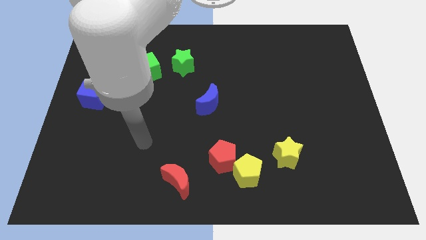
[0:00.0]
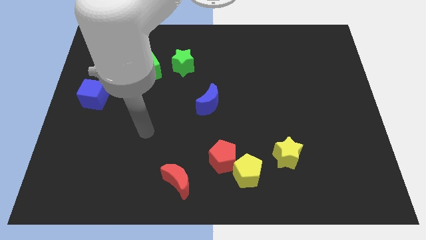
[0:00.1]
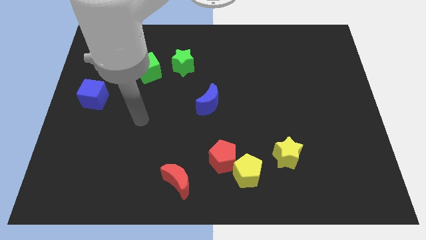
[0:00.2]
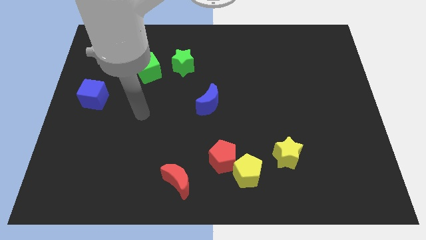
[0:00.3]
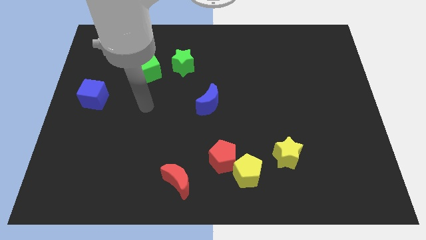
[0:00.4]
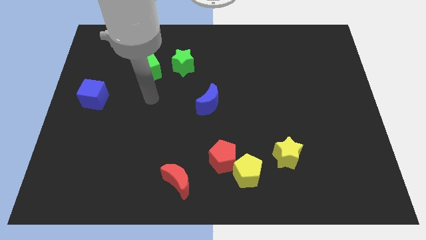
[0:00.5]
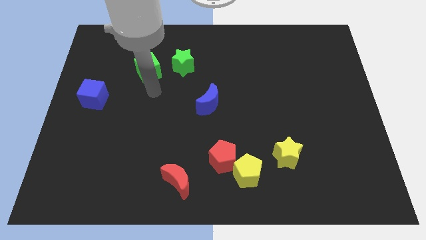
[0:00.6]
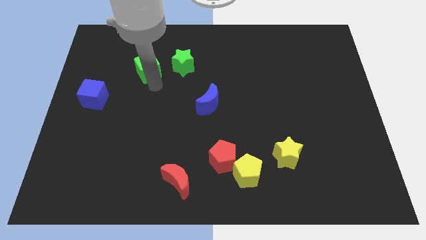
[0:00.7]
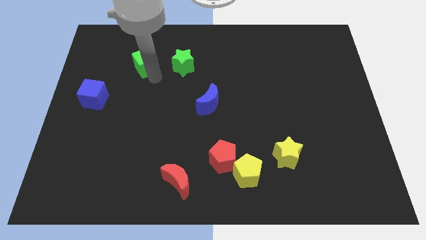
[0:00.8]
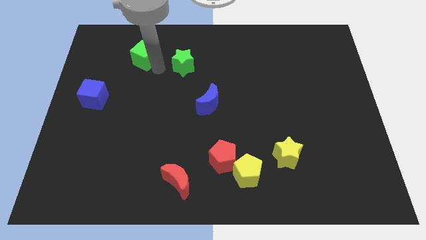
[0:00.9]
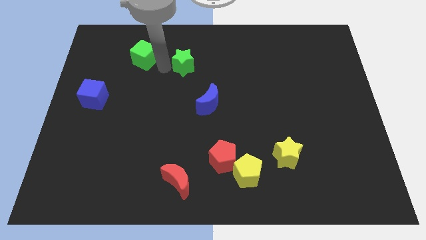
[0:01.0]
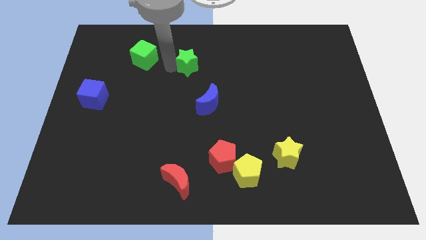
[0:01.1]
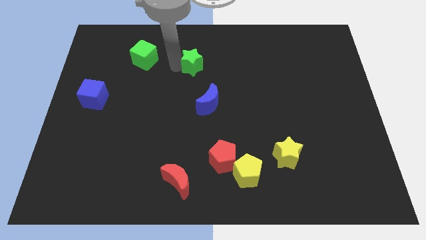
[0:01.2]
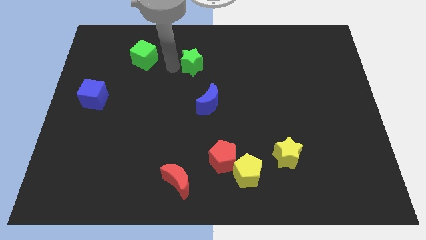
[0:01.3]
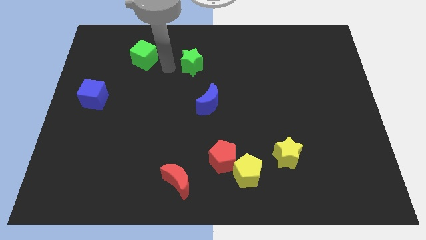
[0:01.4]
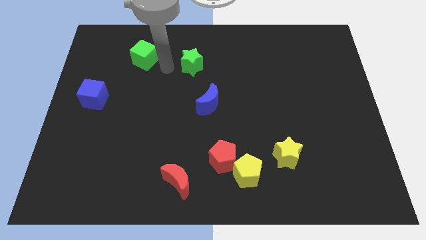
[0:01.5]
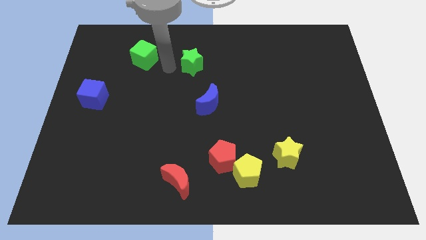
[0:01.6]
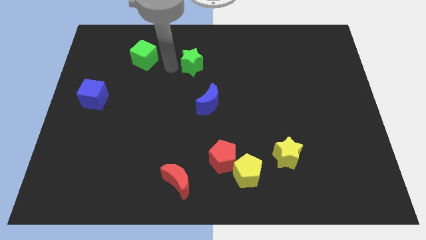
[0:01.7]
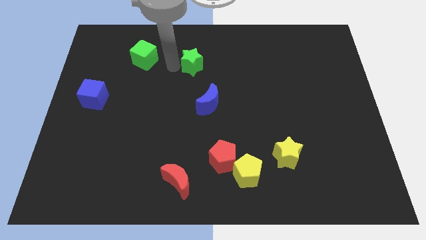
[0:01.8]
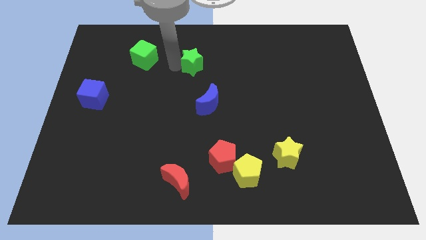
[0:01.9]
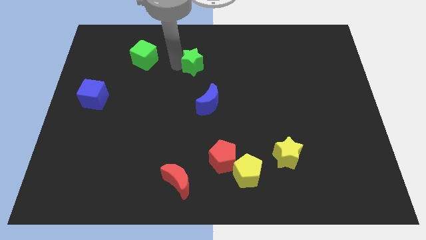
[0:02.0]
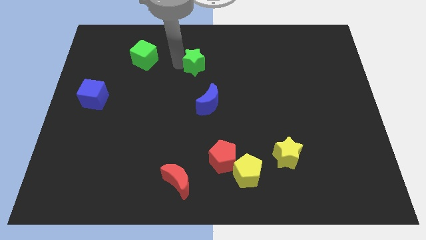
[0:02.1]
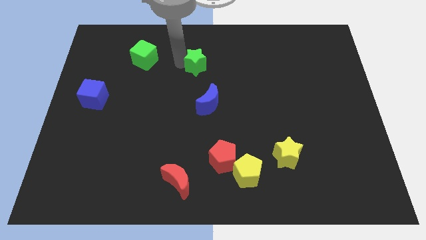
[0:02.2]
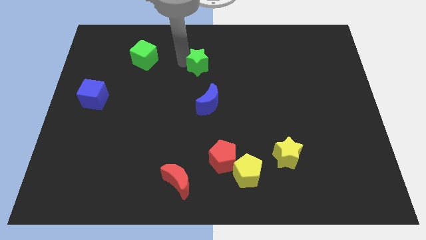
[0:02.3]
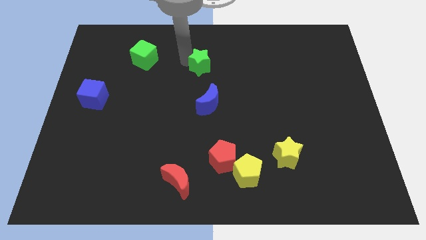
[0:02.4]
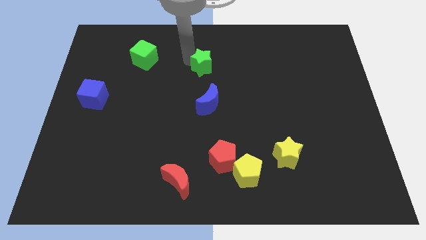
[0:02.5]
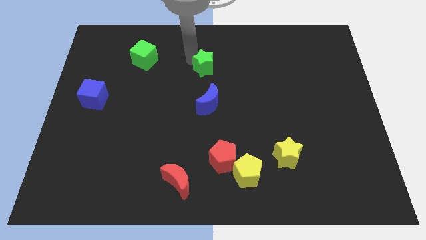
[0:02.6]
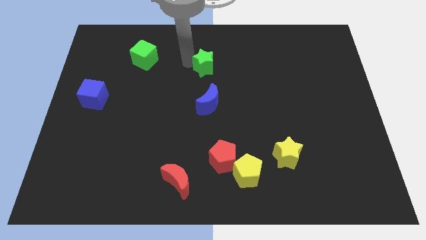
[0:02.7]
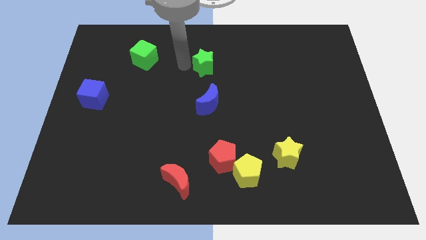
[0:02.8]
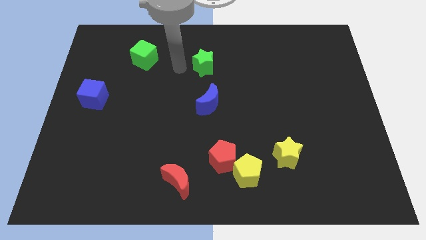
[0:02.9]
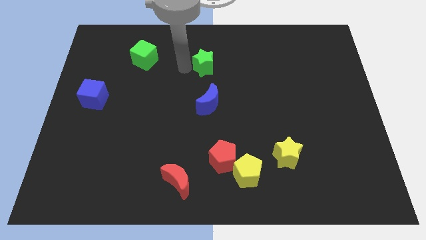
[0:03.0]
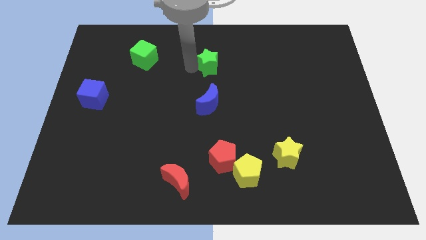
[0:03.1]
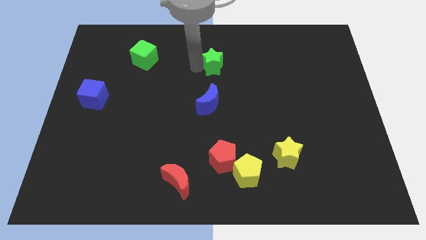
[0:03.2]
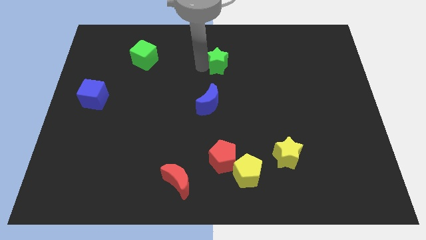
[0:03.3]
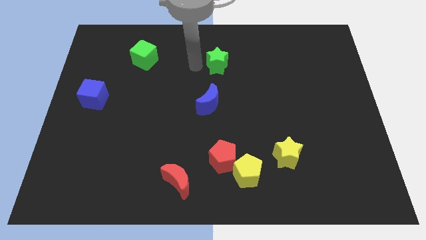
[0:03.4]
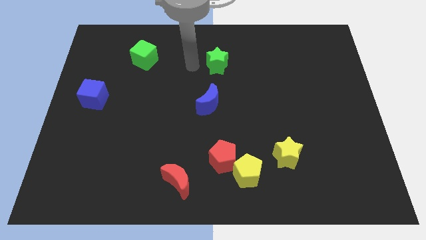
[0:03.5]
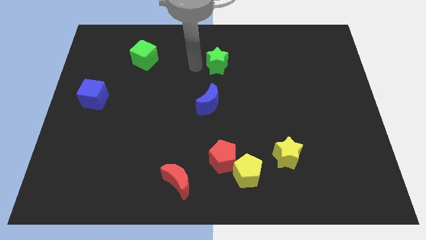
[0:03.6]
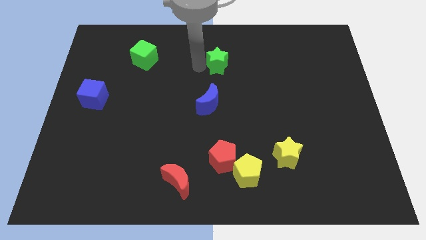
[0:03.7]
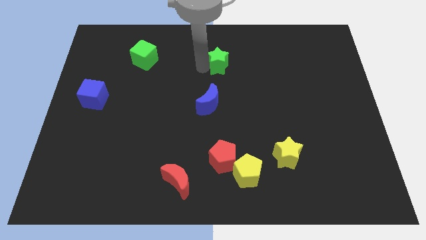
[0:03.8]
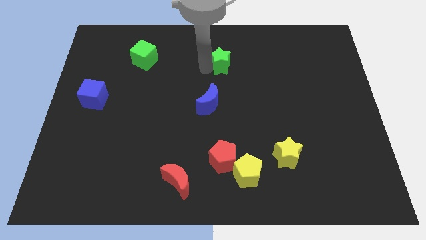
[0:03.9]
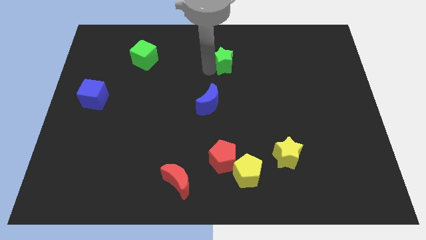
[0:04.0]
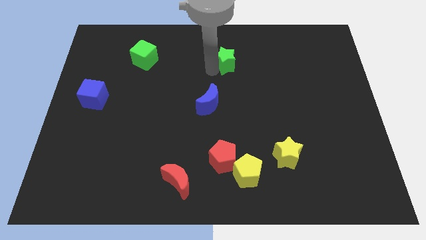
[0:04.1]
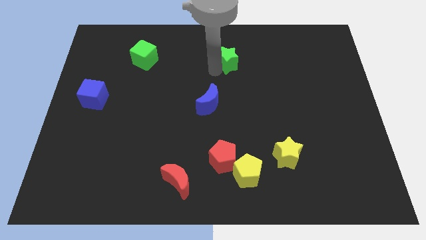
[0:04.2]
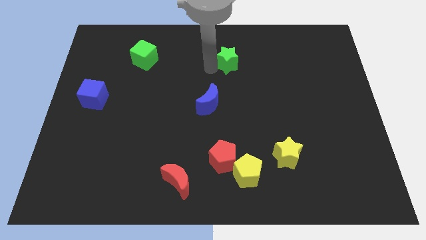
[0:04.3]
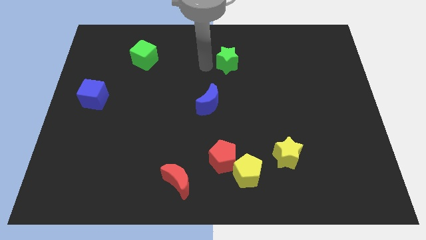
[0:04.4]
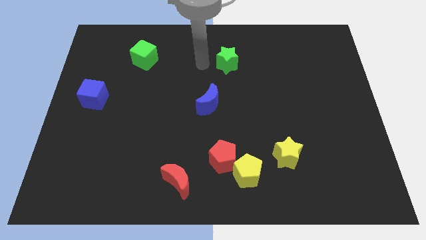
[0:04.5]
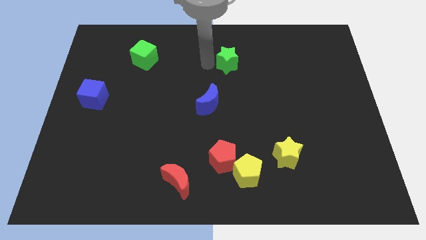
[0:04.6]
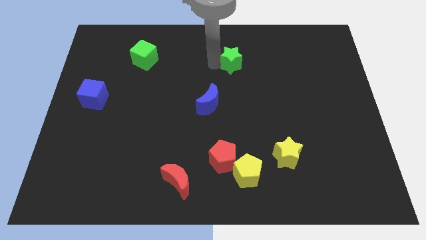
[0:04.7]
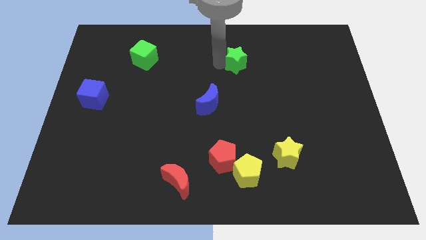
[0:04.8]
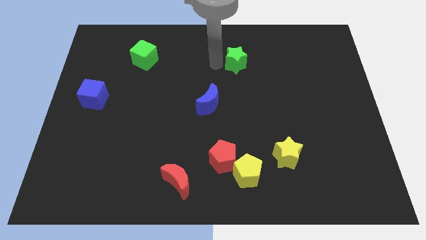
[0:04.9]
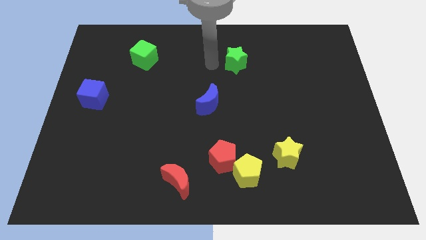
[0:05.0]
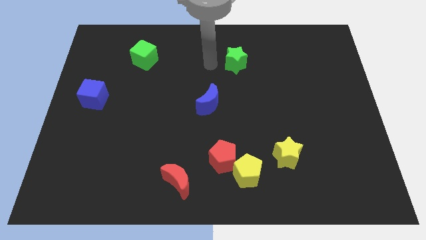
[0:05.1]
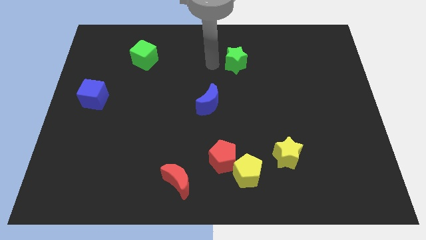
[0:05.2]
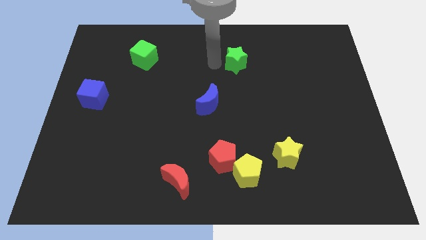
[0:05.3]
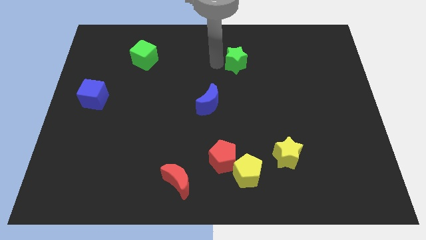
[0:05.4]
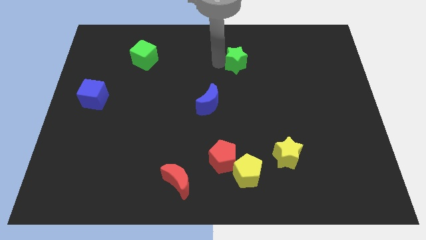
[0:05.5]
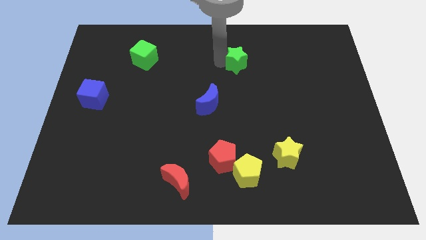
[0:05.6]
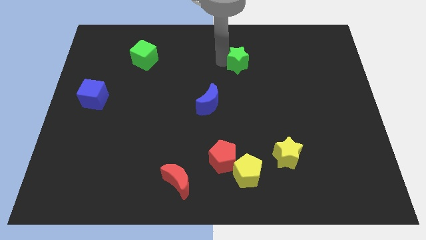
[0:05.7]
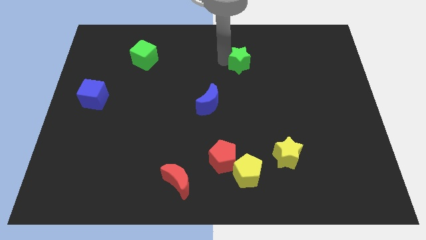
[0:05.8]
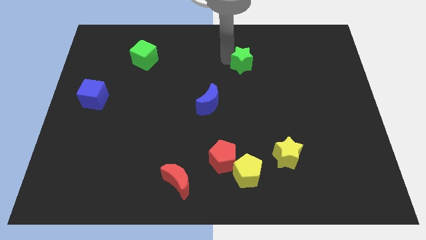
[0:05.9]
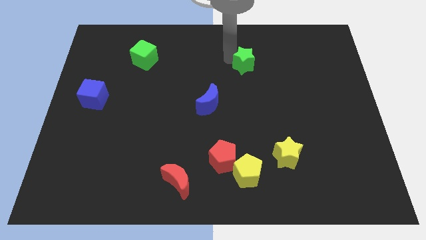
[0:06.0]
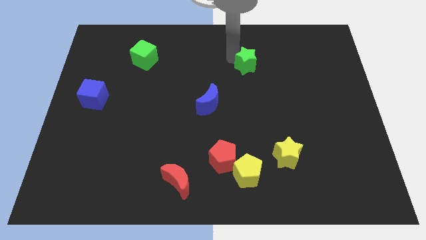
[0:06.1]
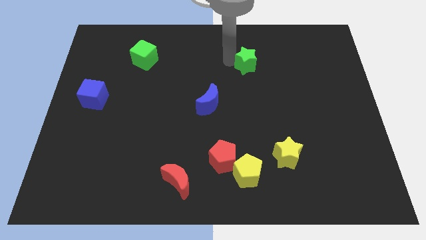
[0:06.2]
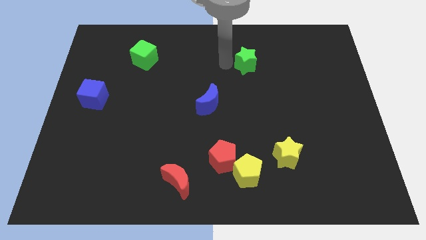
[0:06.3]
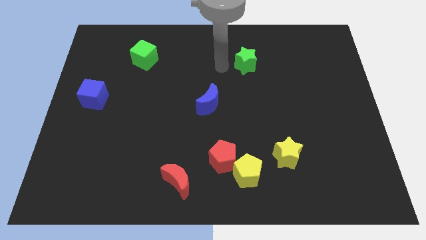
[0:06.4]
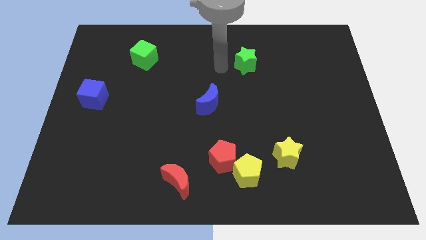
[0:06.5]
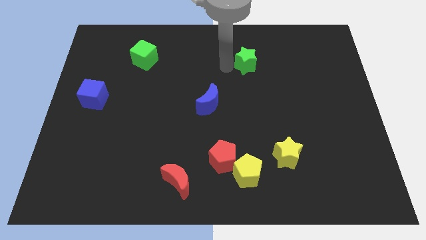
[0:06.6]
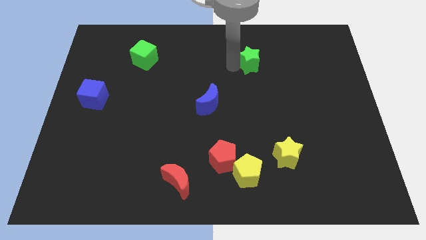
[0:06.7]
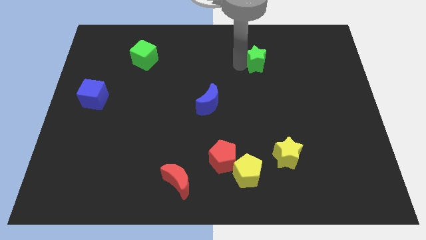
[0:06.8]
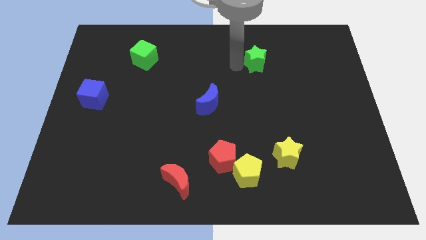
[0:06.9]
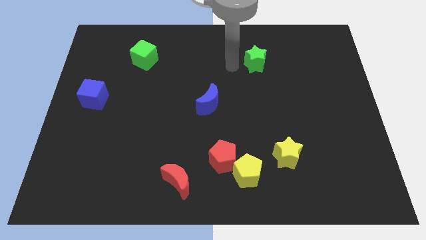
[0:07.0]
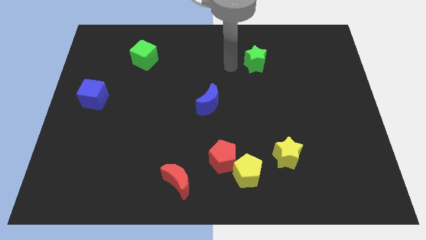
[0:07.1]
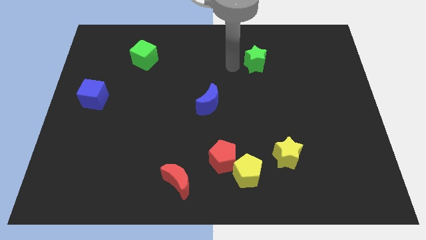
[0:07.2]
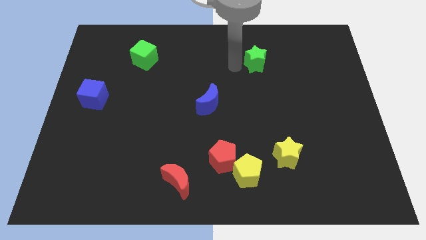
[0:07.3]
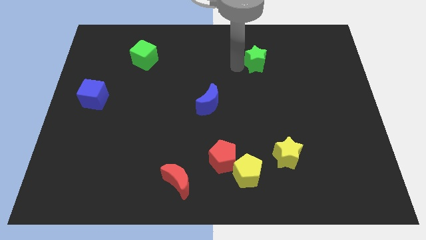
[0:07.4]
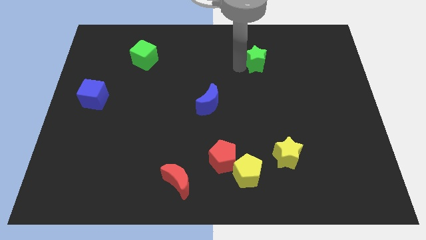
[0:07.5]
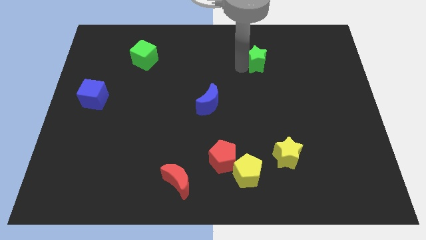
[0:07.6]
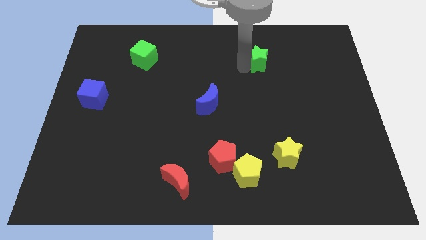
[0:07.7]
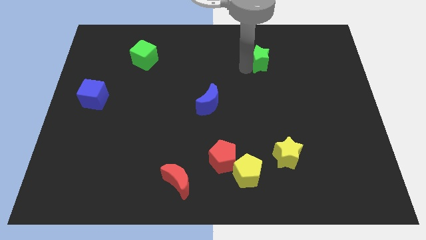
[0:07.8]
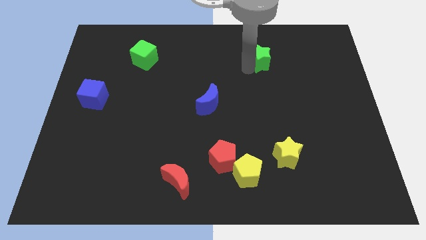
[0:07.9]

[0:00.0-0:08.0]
push the green star to the right
